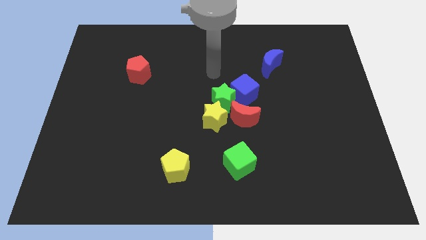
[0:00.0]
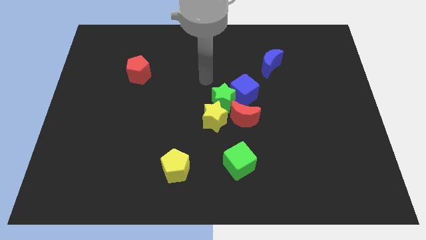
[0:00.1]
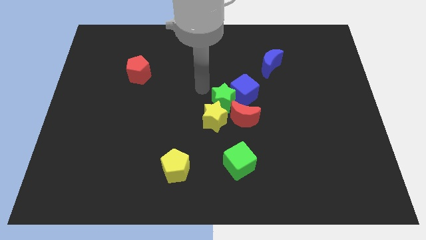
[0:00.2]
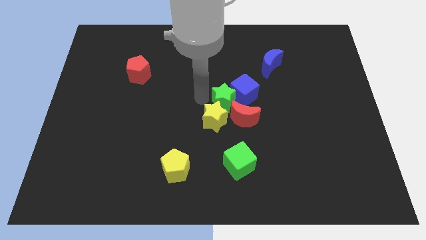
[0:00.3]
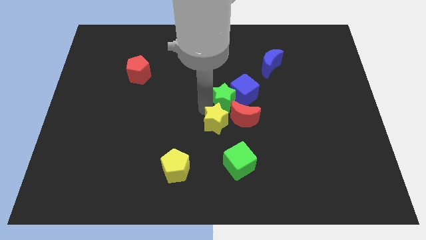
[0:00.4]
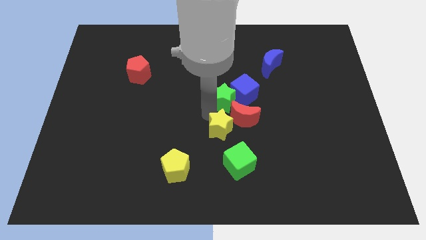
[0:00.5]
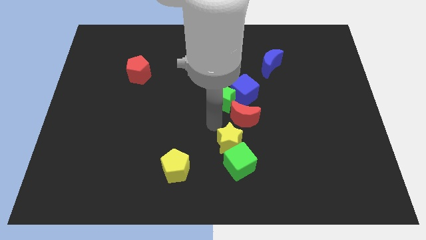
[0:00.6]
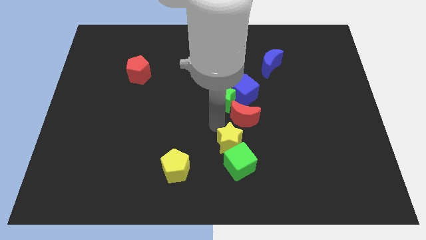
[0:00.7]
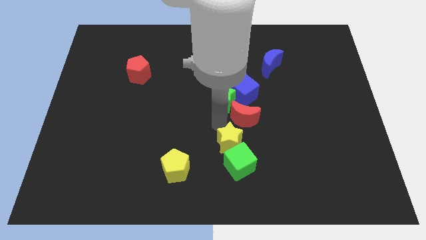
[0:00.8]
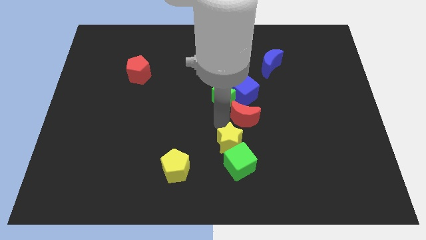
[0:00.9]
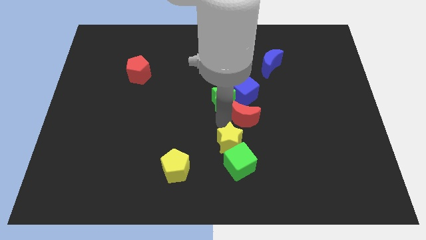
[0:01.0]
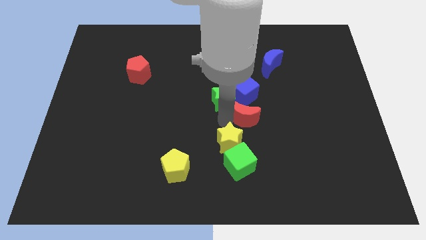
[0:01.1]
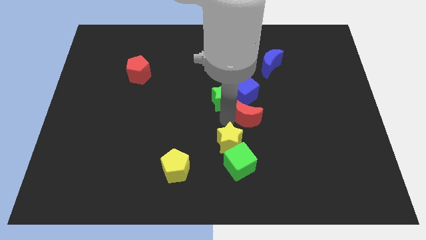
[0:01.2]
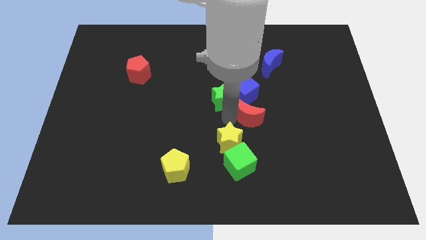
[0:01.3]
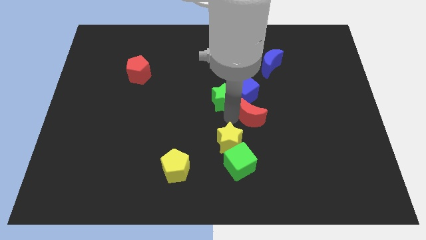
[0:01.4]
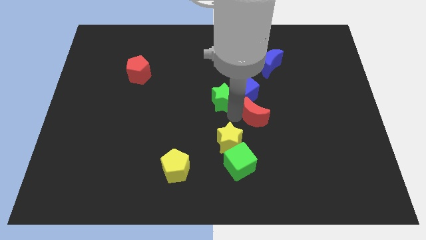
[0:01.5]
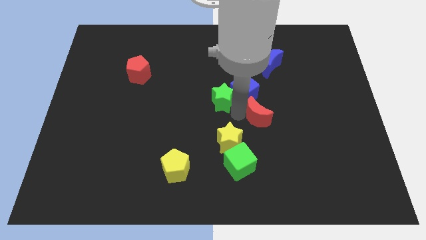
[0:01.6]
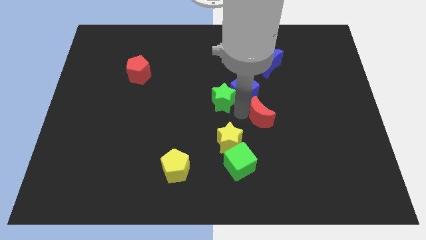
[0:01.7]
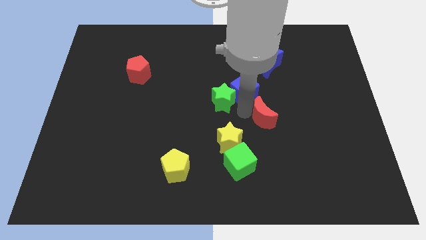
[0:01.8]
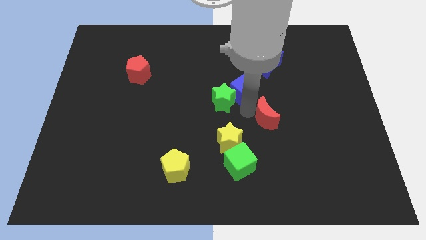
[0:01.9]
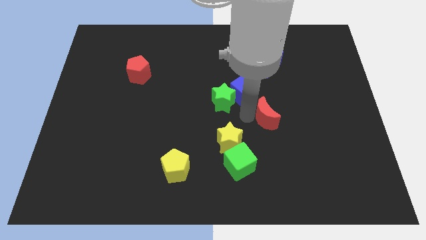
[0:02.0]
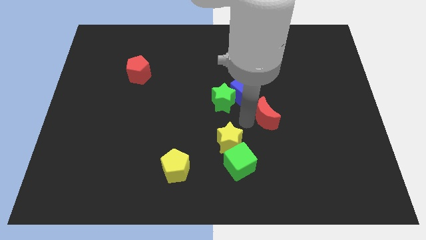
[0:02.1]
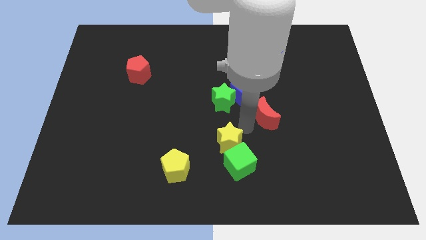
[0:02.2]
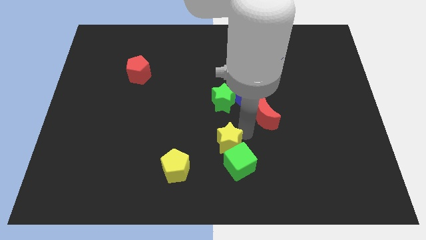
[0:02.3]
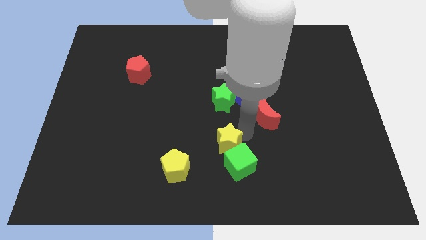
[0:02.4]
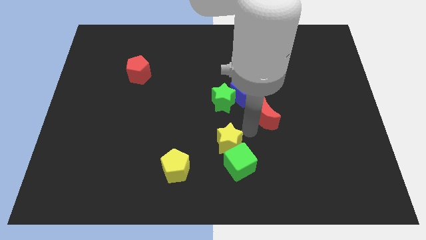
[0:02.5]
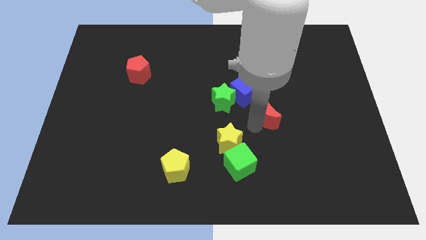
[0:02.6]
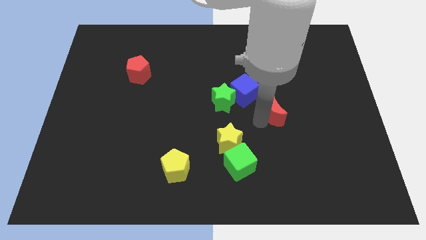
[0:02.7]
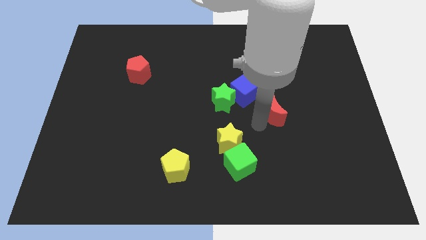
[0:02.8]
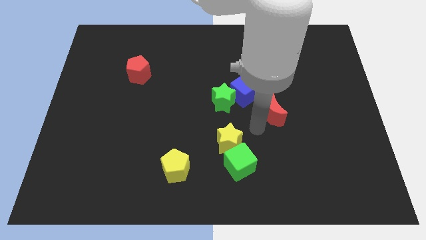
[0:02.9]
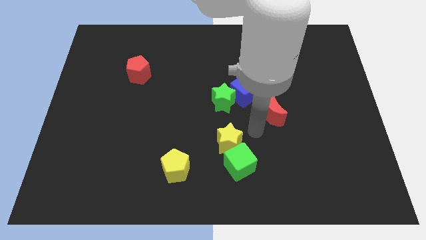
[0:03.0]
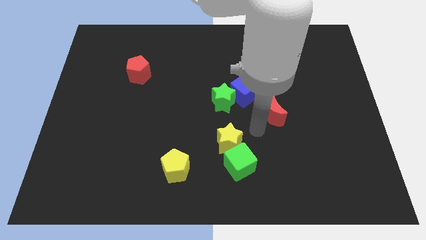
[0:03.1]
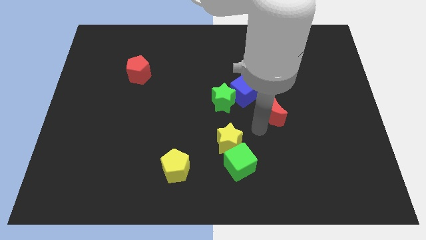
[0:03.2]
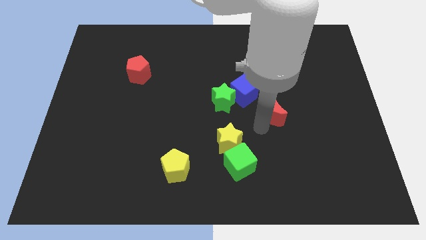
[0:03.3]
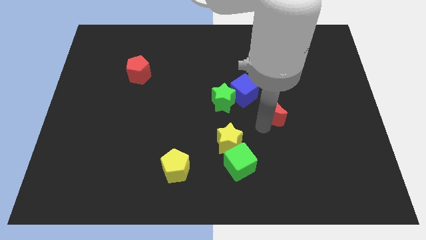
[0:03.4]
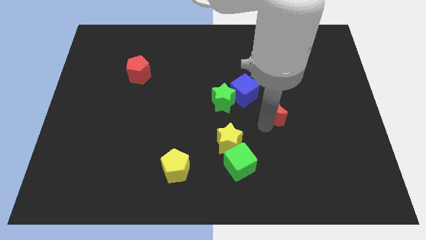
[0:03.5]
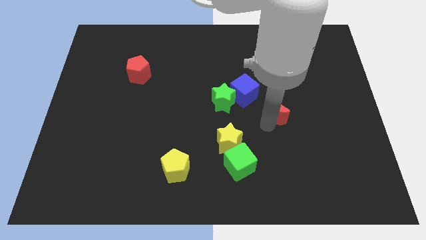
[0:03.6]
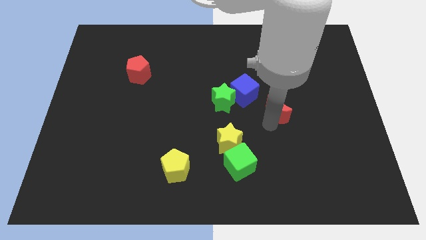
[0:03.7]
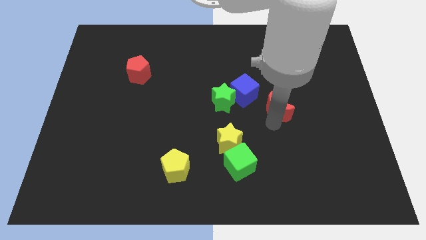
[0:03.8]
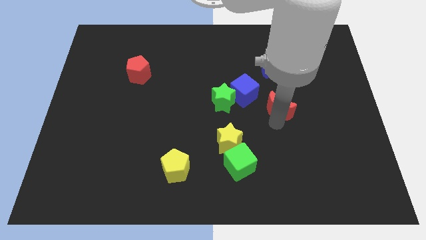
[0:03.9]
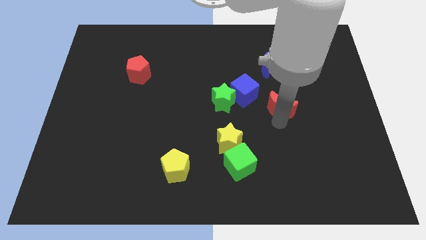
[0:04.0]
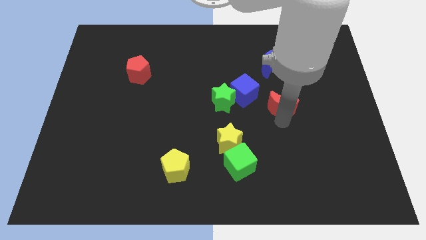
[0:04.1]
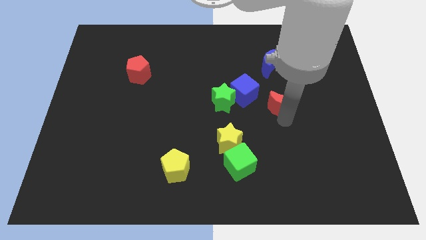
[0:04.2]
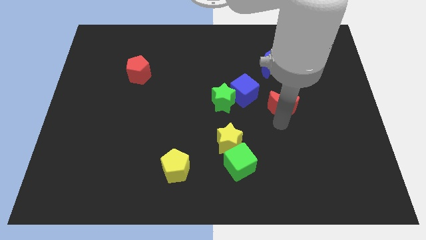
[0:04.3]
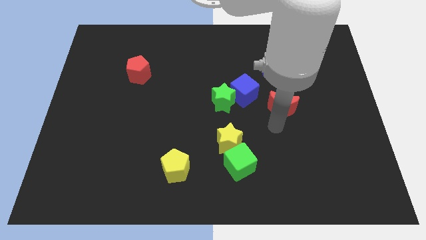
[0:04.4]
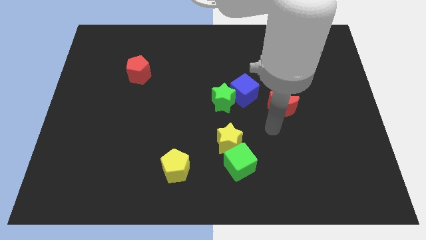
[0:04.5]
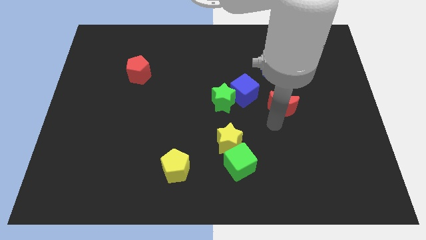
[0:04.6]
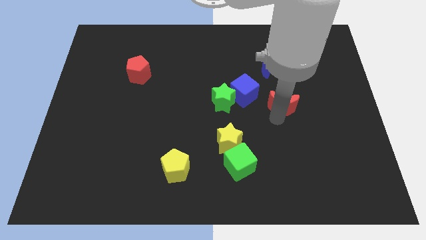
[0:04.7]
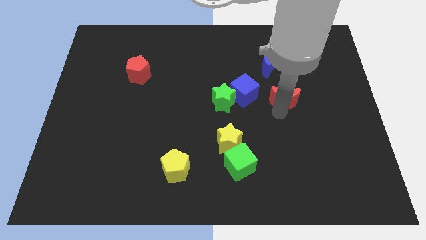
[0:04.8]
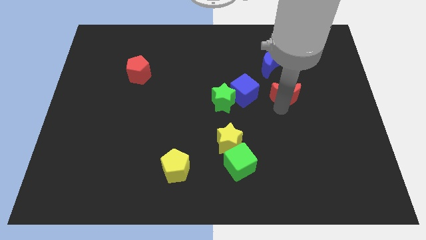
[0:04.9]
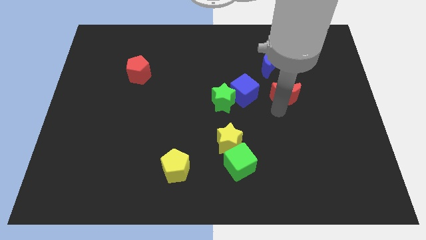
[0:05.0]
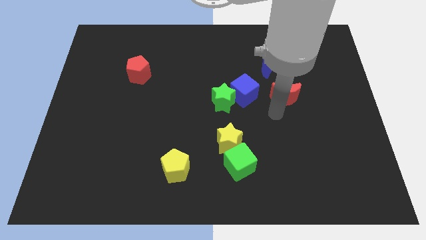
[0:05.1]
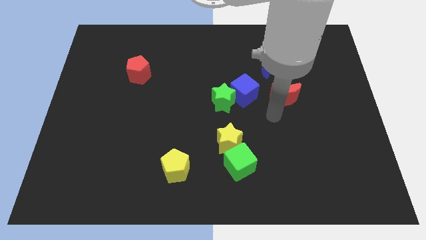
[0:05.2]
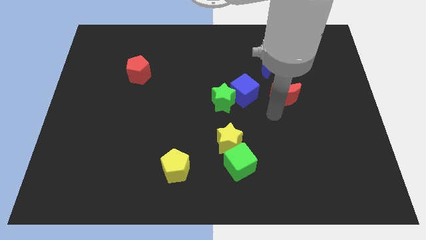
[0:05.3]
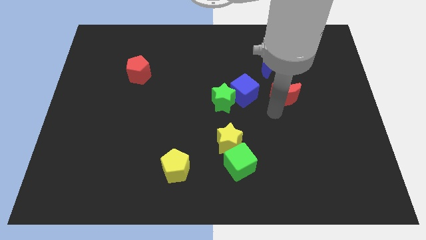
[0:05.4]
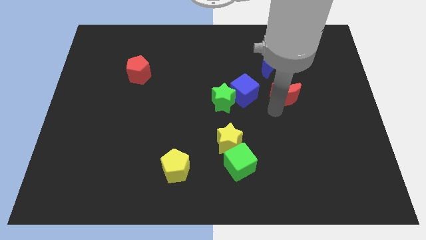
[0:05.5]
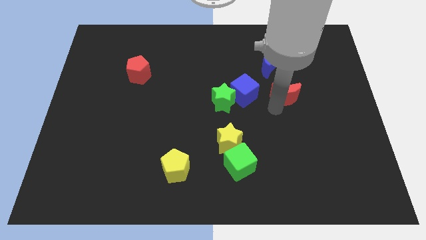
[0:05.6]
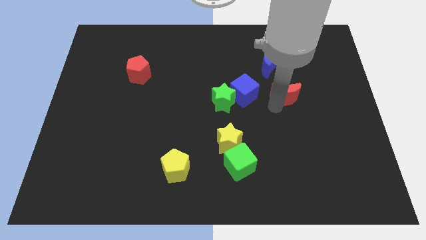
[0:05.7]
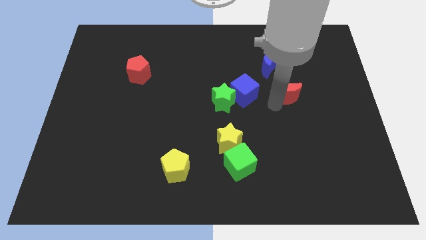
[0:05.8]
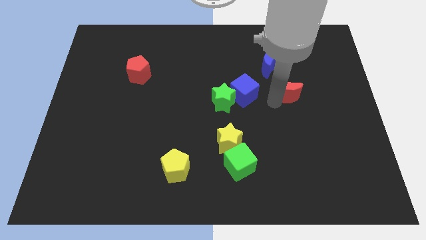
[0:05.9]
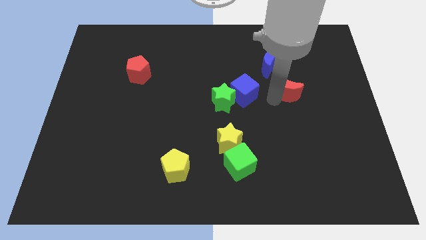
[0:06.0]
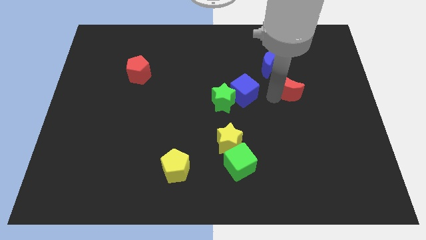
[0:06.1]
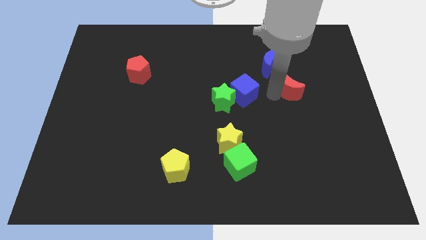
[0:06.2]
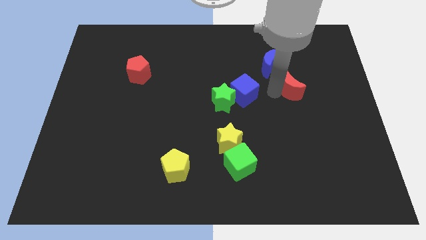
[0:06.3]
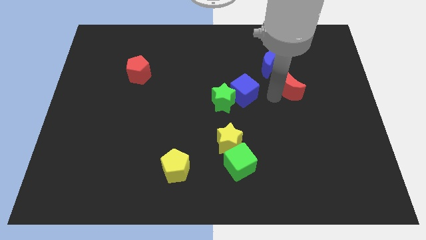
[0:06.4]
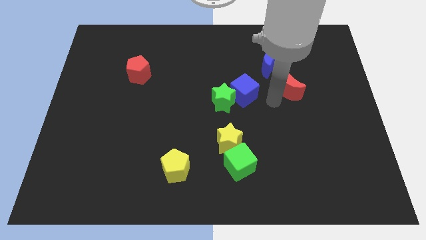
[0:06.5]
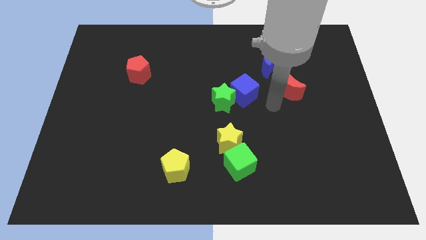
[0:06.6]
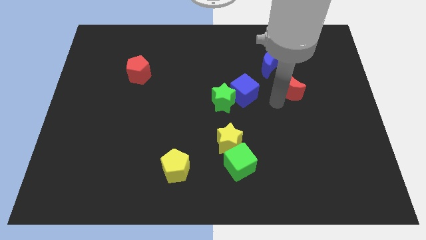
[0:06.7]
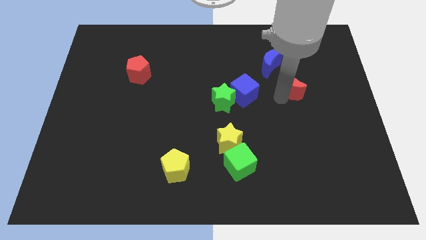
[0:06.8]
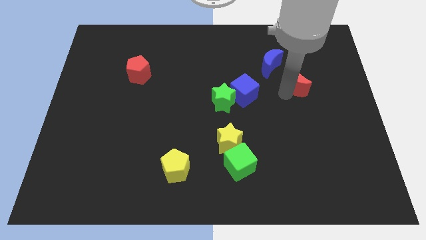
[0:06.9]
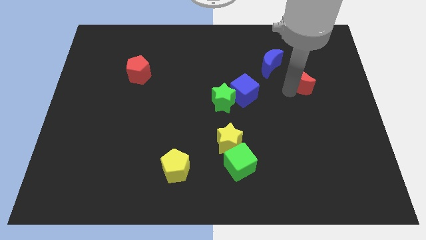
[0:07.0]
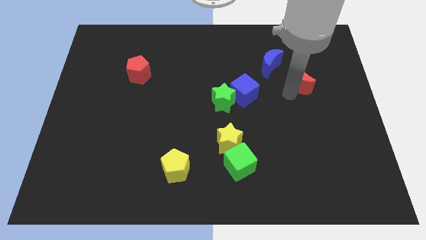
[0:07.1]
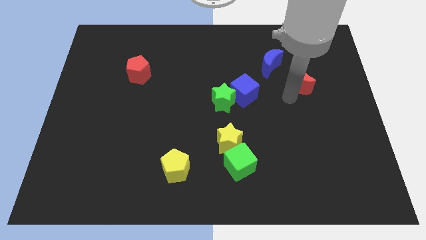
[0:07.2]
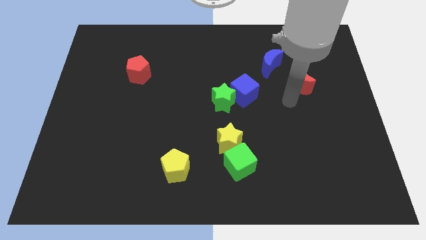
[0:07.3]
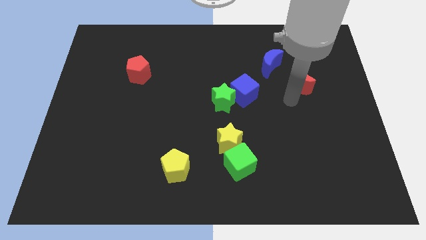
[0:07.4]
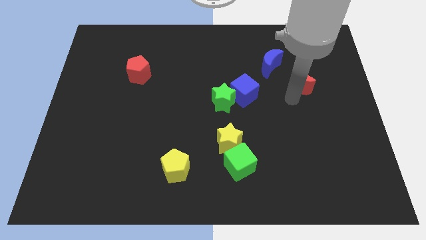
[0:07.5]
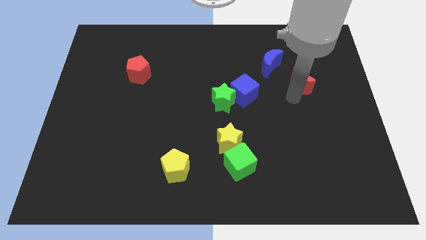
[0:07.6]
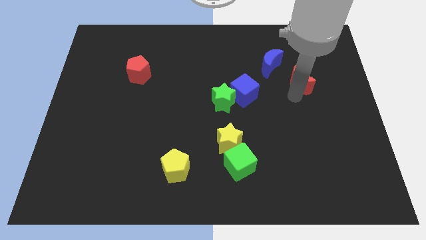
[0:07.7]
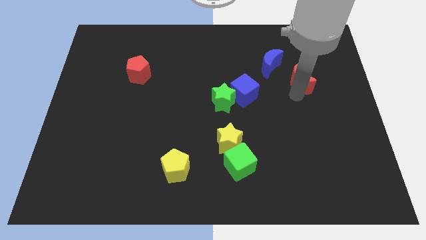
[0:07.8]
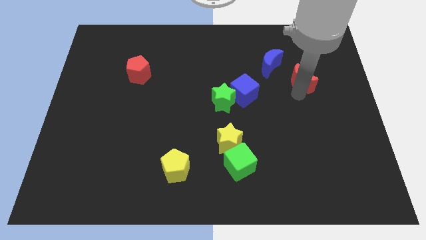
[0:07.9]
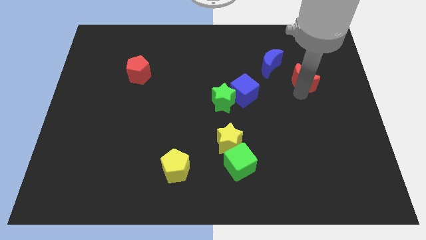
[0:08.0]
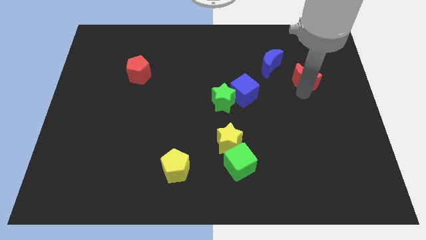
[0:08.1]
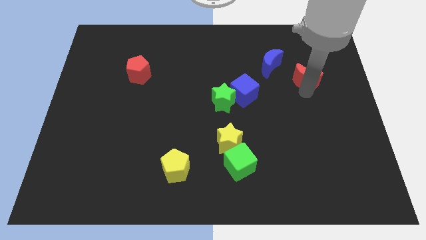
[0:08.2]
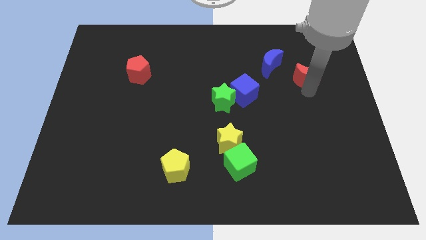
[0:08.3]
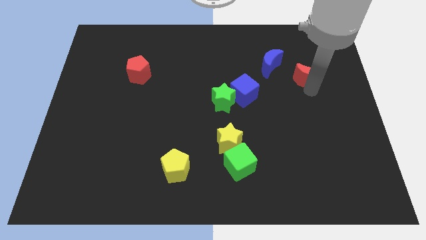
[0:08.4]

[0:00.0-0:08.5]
slide the red moon just right of the blue moon
